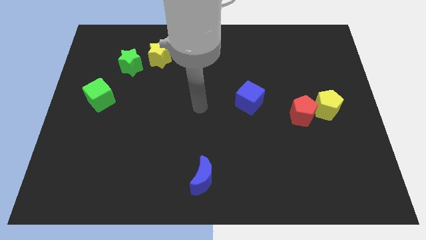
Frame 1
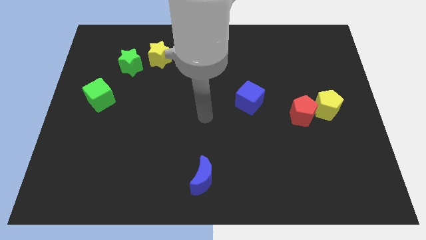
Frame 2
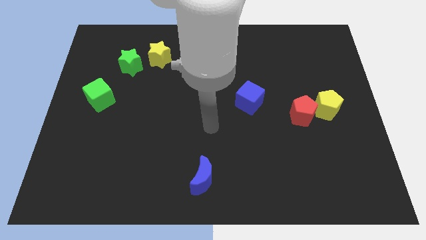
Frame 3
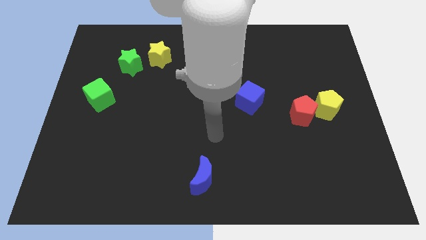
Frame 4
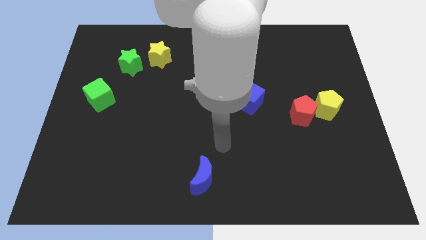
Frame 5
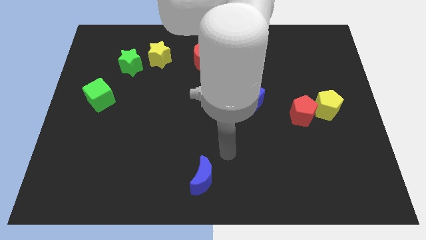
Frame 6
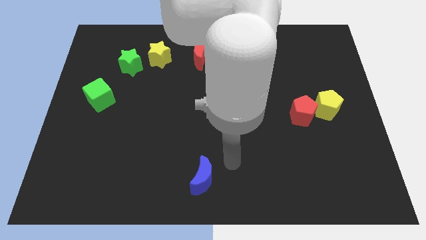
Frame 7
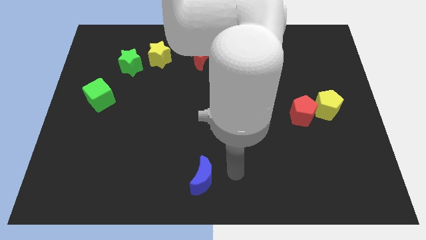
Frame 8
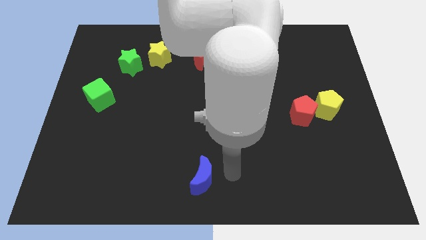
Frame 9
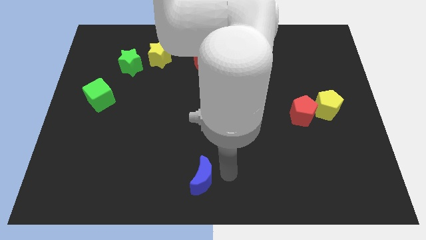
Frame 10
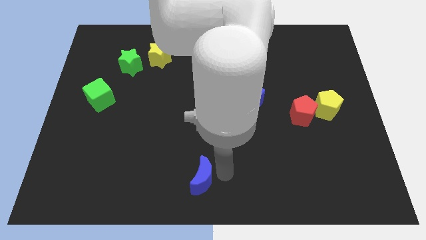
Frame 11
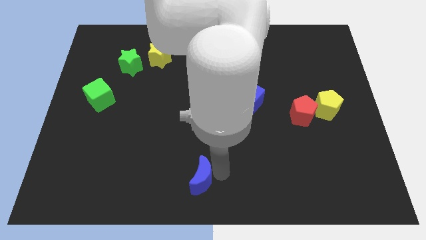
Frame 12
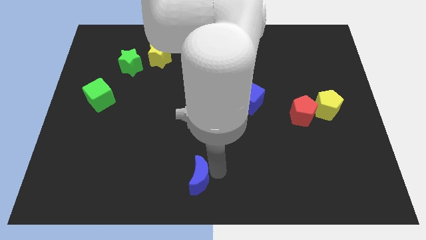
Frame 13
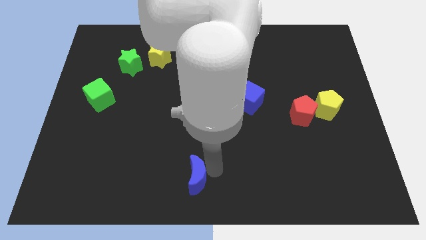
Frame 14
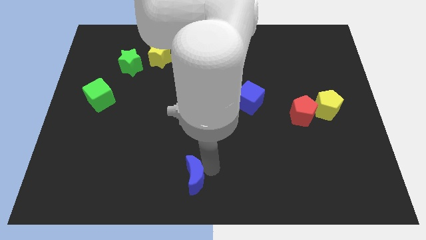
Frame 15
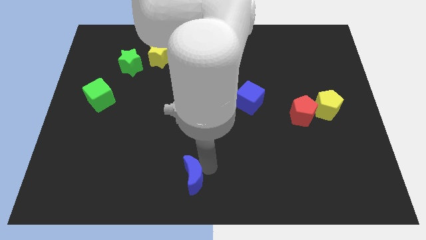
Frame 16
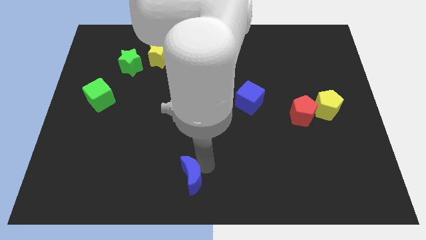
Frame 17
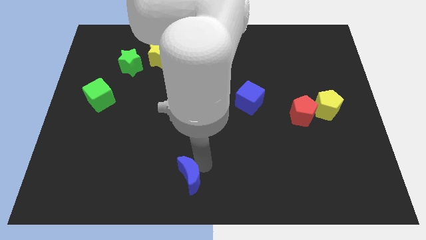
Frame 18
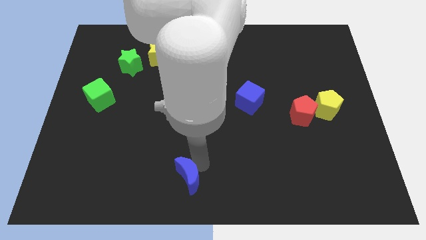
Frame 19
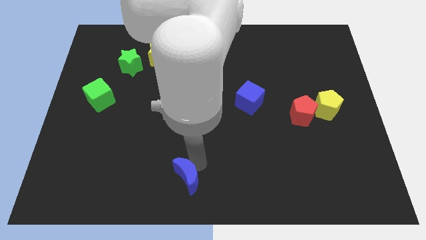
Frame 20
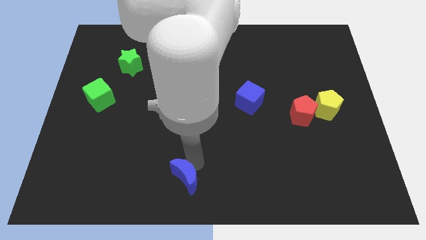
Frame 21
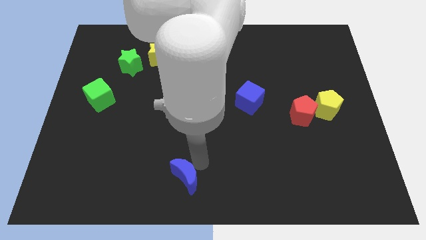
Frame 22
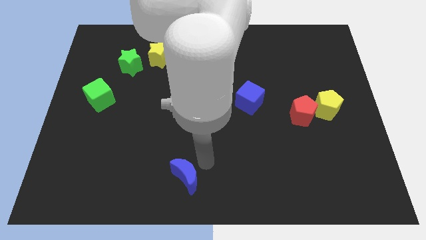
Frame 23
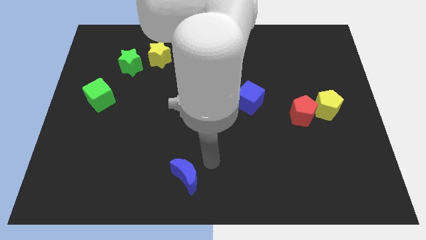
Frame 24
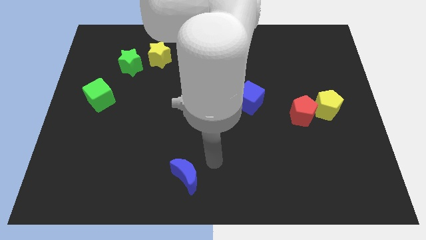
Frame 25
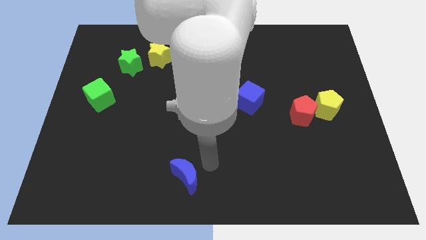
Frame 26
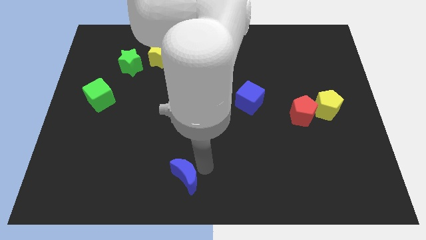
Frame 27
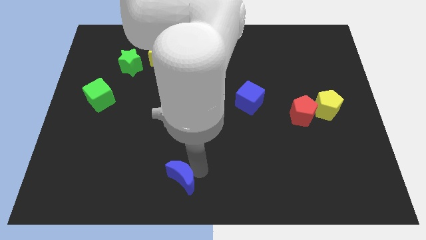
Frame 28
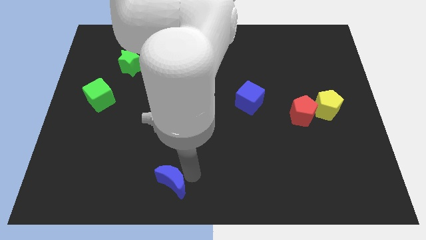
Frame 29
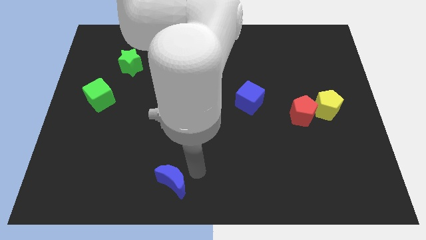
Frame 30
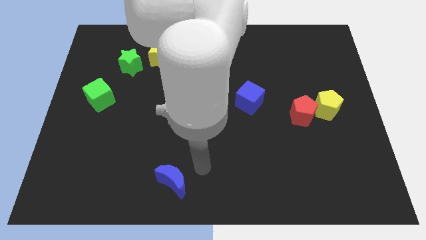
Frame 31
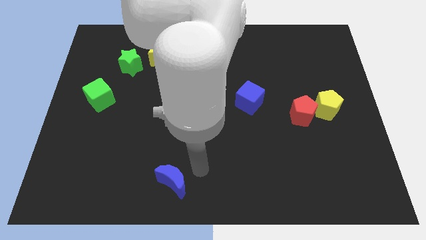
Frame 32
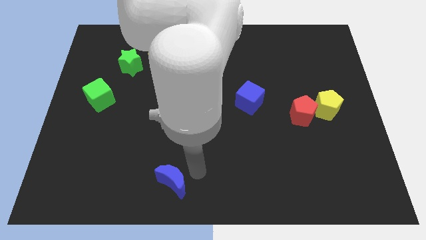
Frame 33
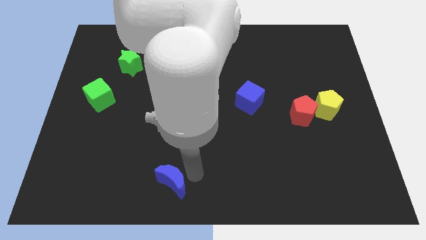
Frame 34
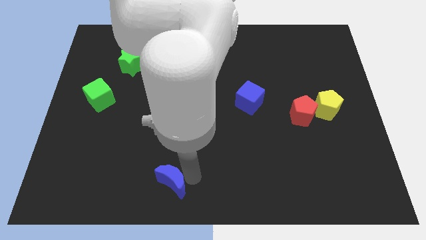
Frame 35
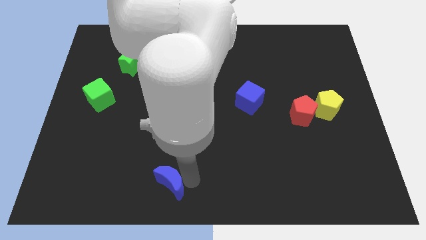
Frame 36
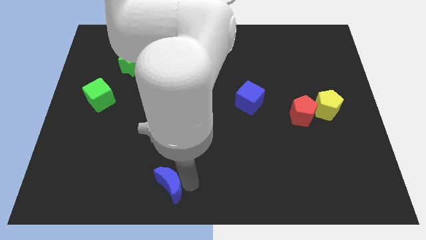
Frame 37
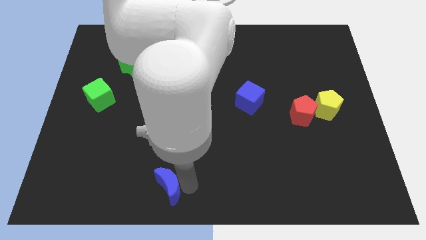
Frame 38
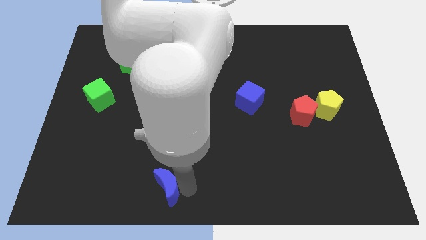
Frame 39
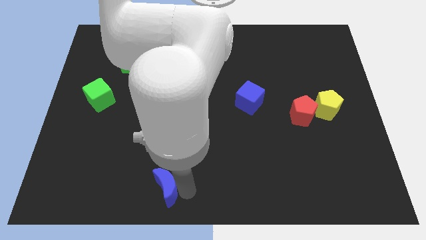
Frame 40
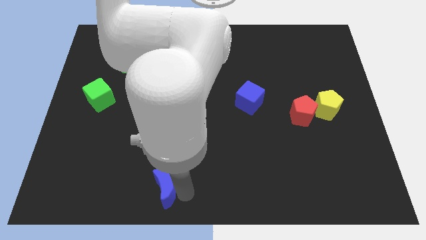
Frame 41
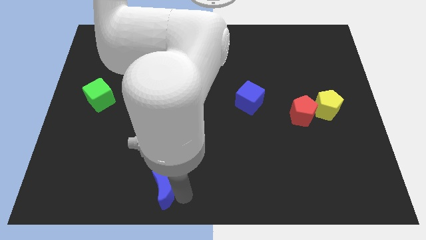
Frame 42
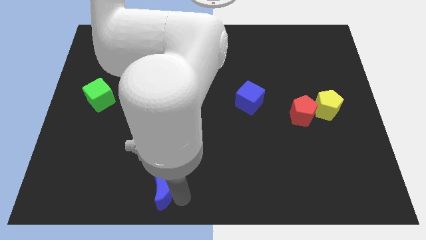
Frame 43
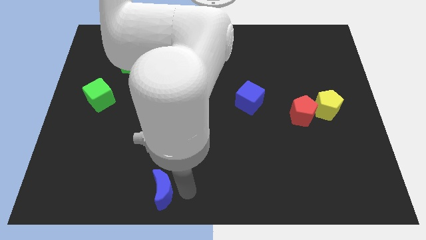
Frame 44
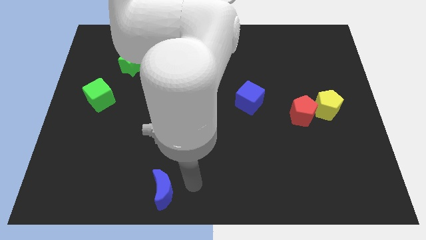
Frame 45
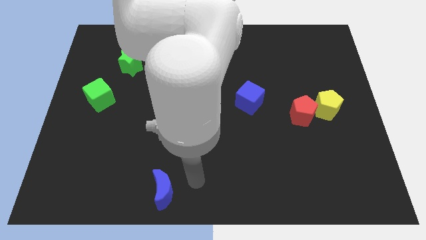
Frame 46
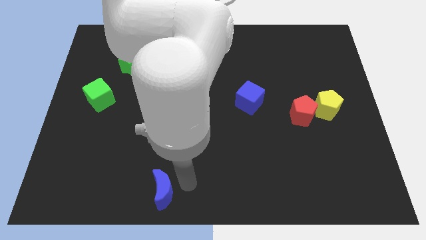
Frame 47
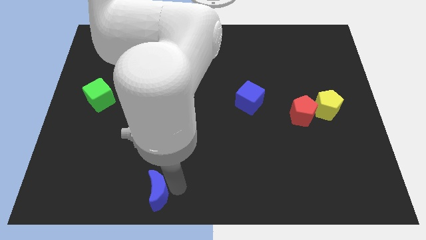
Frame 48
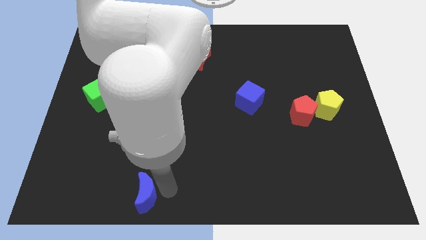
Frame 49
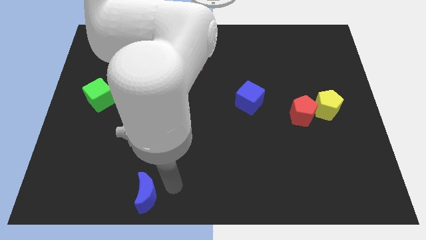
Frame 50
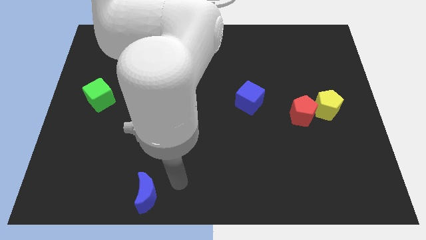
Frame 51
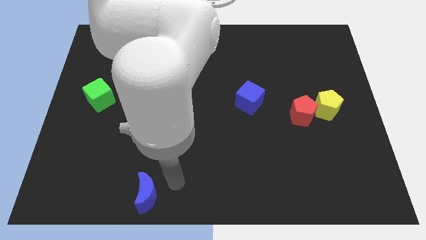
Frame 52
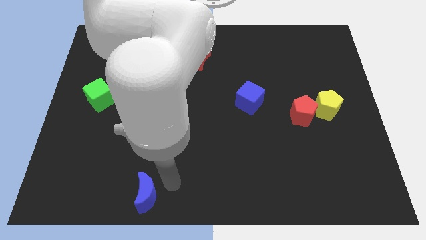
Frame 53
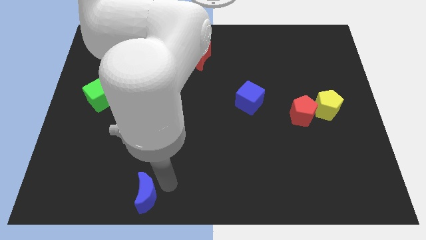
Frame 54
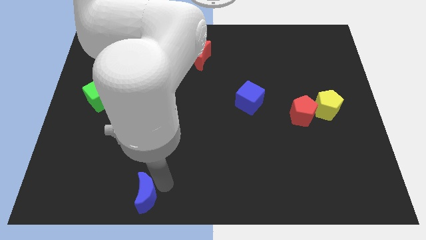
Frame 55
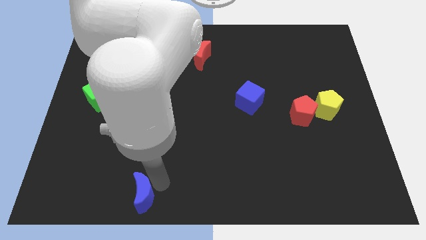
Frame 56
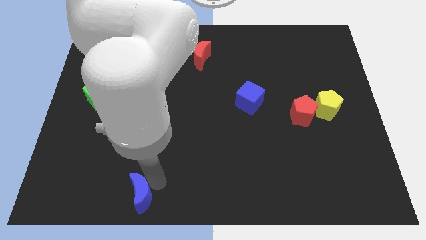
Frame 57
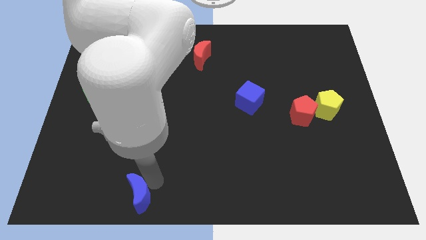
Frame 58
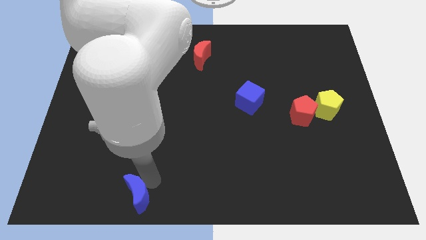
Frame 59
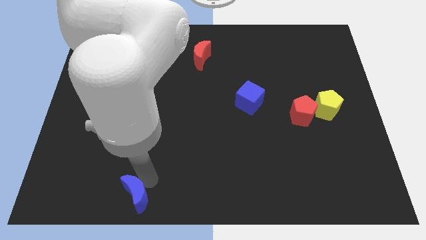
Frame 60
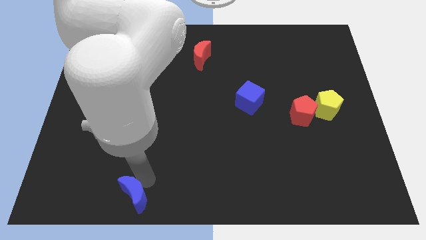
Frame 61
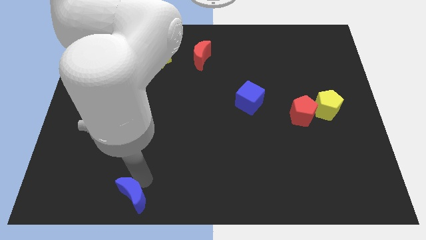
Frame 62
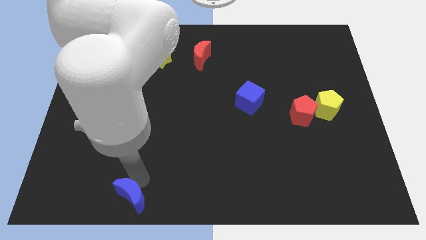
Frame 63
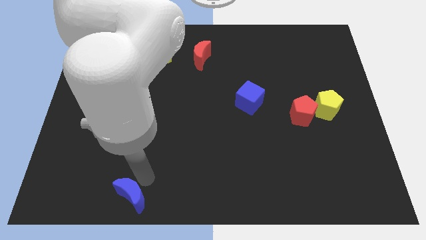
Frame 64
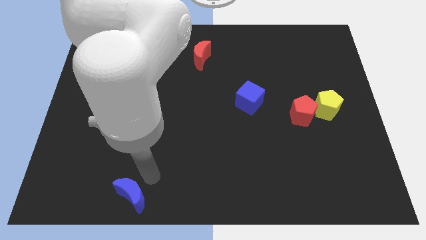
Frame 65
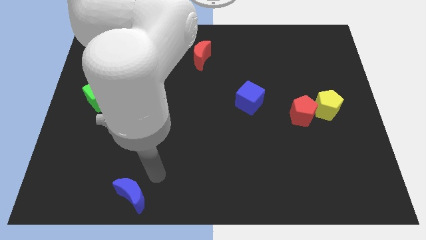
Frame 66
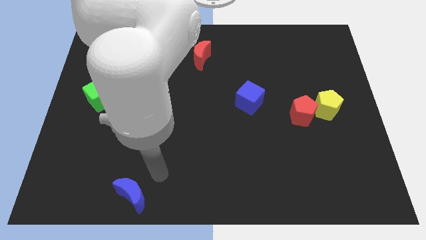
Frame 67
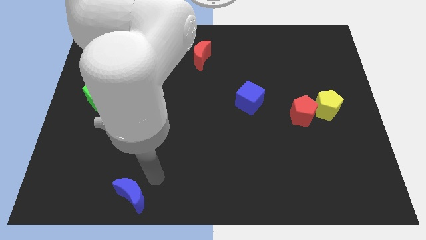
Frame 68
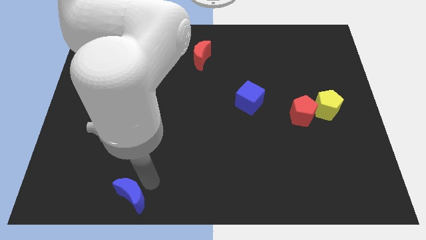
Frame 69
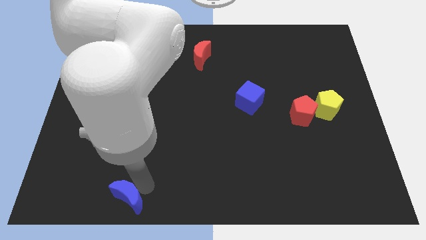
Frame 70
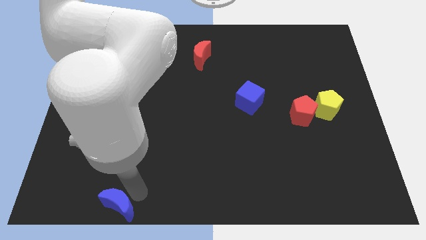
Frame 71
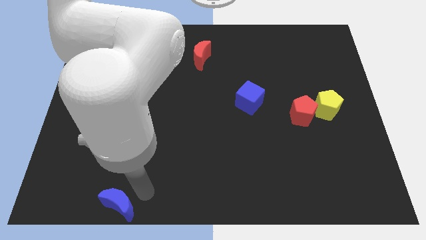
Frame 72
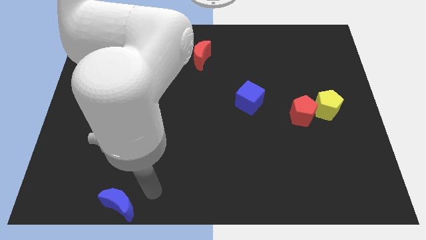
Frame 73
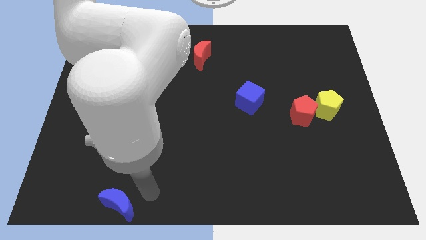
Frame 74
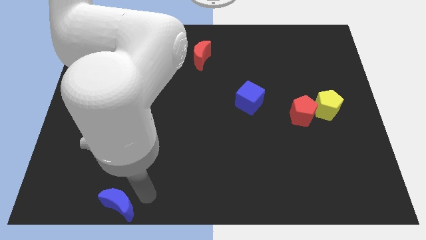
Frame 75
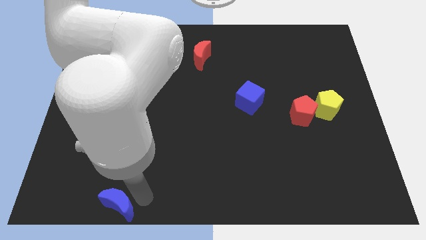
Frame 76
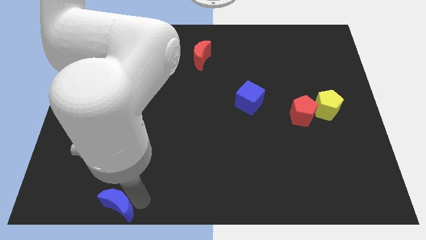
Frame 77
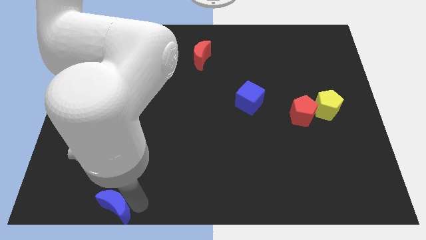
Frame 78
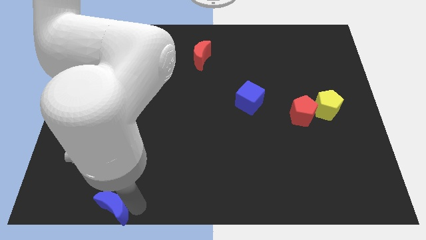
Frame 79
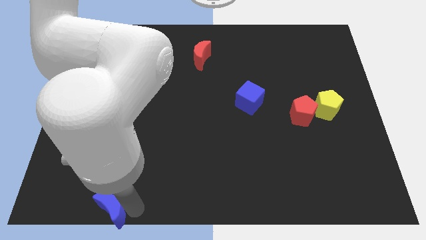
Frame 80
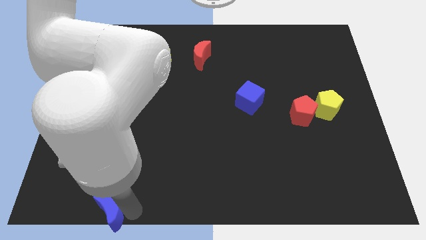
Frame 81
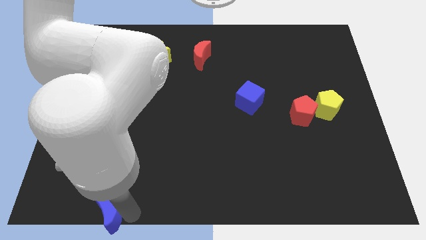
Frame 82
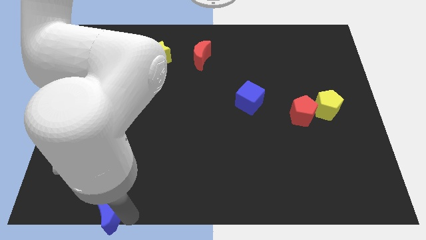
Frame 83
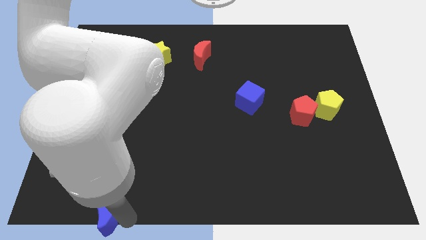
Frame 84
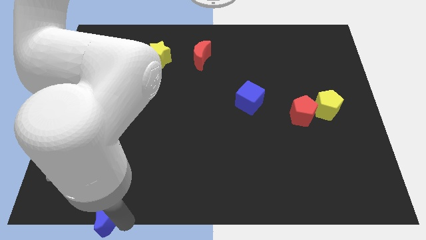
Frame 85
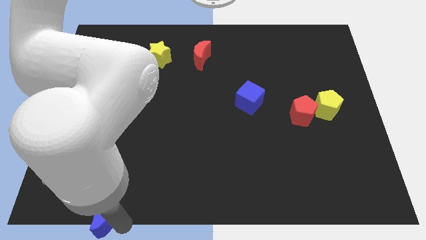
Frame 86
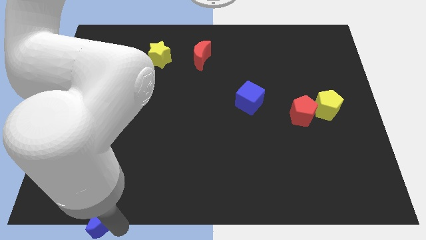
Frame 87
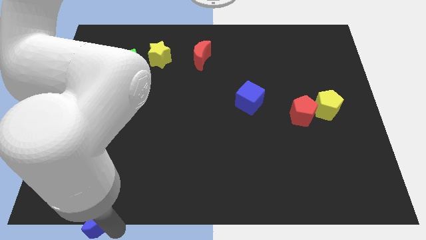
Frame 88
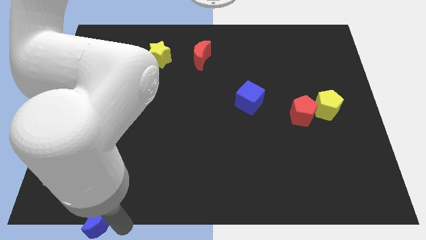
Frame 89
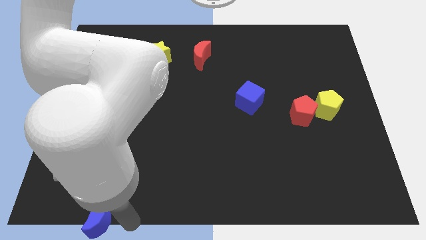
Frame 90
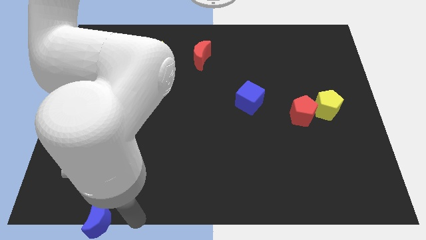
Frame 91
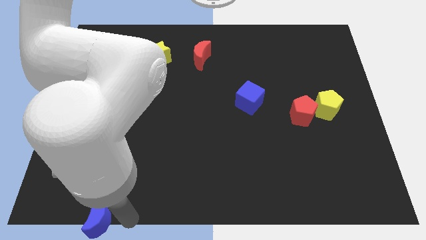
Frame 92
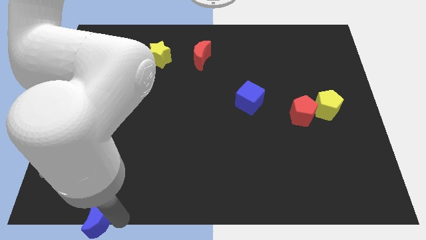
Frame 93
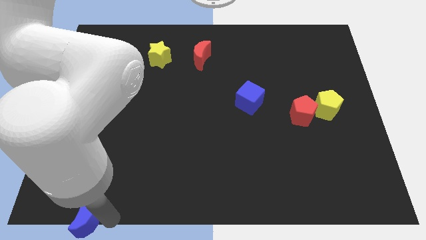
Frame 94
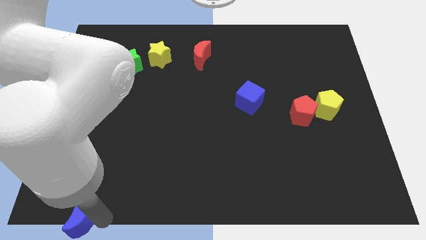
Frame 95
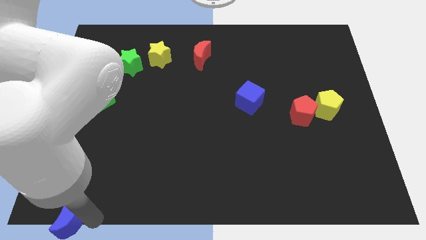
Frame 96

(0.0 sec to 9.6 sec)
slide the blue moon to the lower left corner
